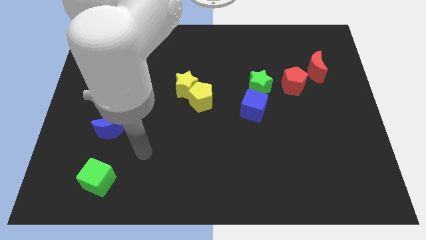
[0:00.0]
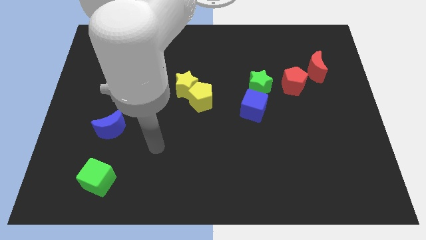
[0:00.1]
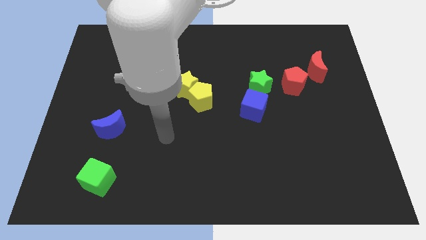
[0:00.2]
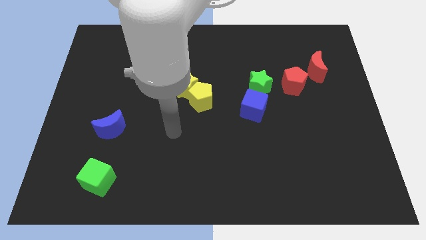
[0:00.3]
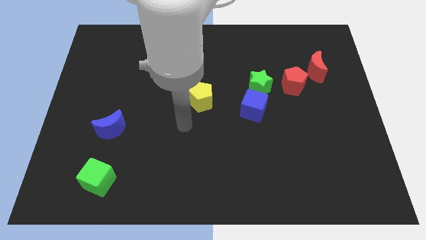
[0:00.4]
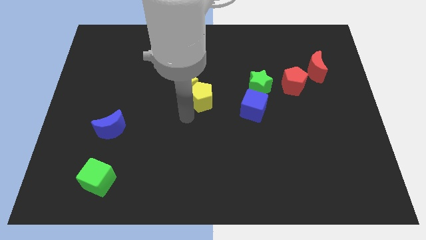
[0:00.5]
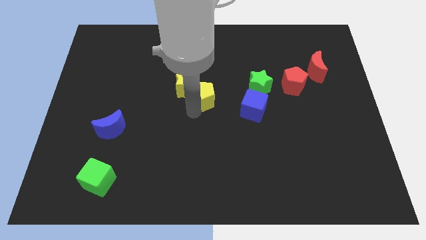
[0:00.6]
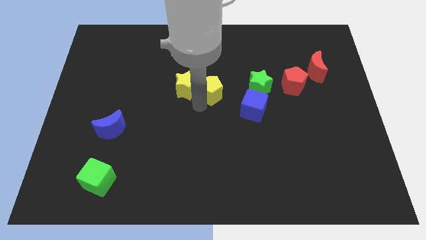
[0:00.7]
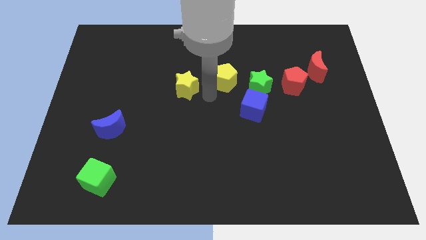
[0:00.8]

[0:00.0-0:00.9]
pull the yellow star apart from the yellow pentagon

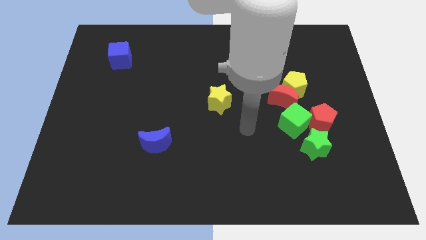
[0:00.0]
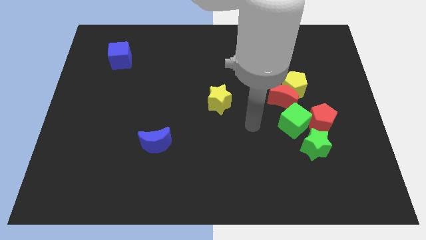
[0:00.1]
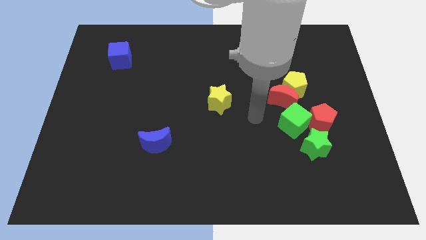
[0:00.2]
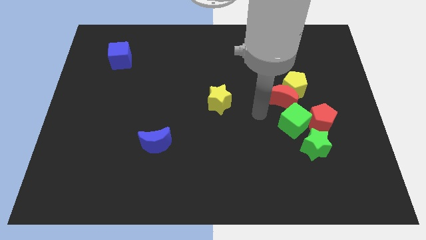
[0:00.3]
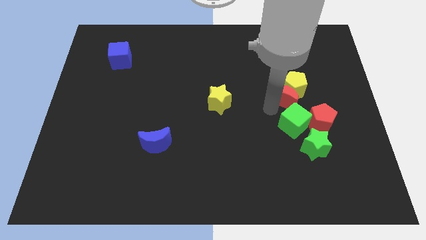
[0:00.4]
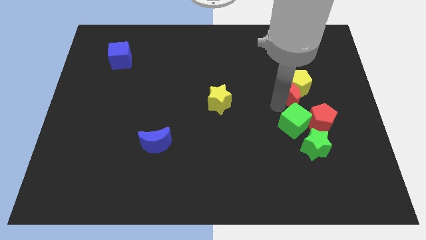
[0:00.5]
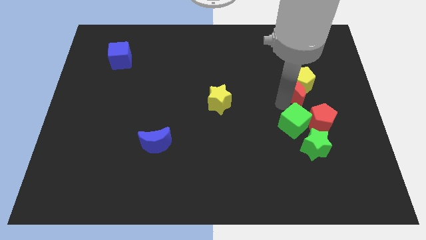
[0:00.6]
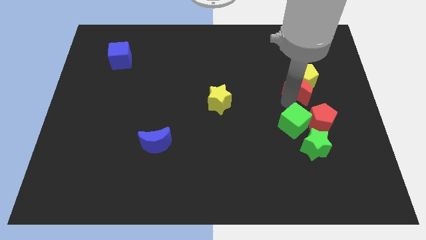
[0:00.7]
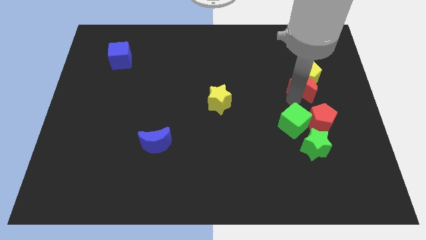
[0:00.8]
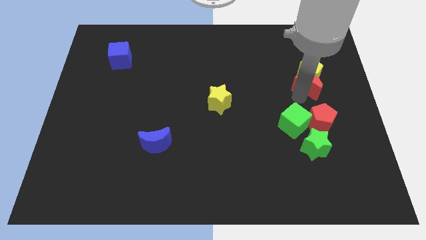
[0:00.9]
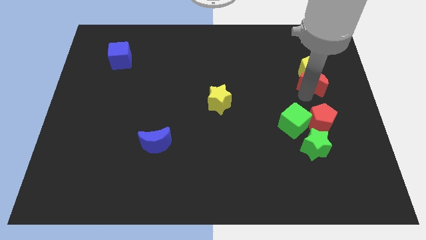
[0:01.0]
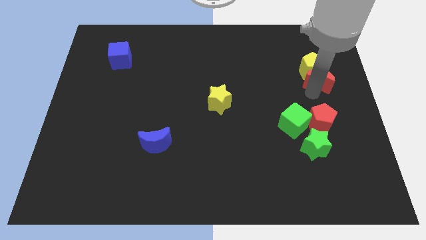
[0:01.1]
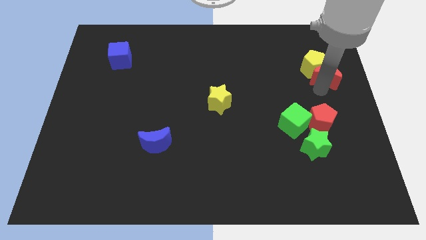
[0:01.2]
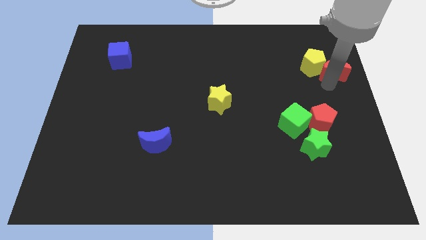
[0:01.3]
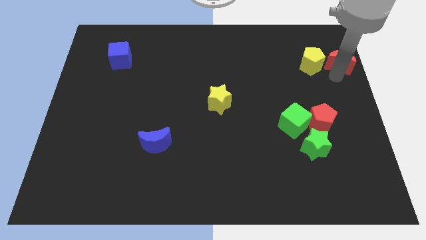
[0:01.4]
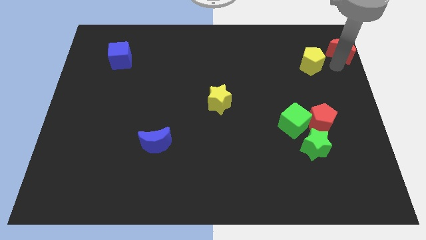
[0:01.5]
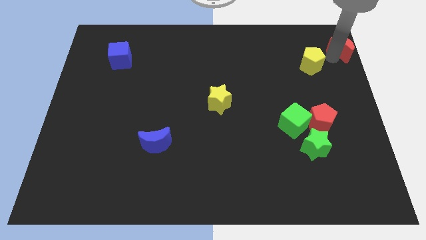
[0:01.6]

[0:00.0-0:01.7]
pull the yellow pentagon apart from the red moon

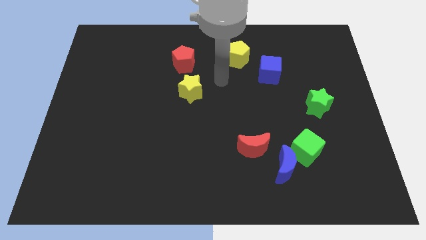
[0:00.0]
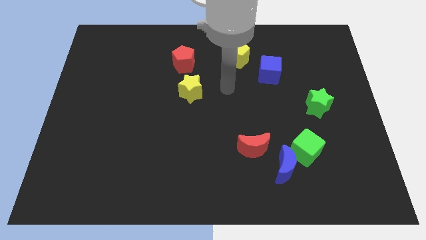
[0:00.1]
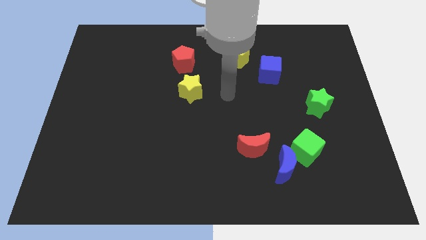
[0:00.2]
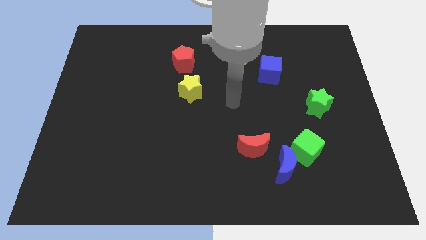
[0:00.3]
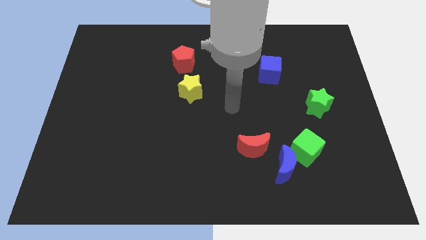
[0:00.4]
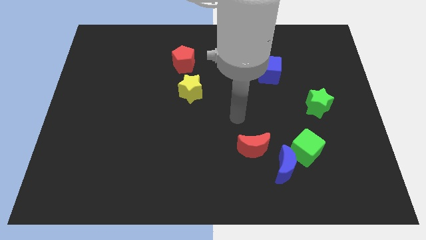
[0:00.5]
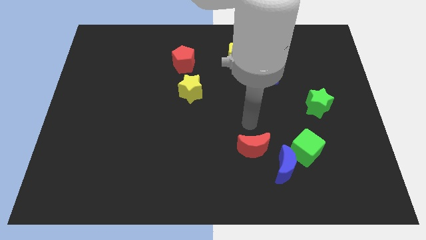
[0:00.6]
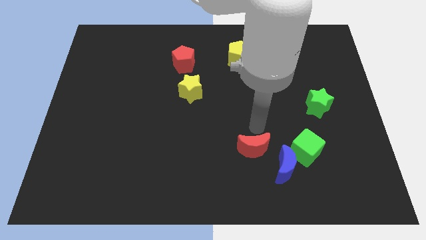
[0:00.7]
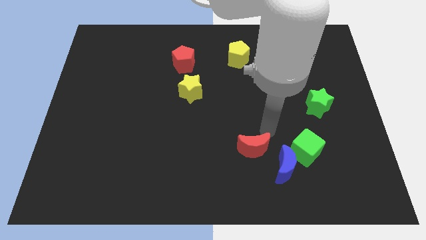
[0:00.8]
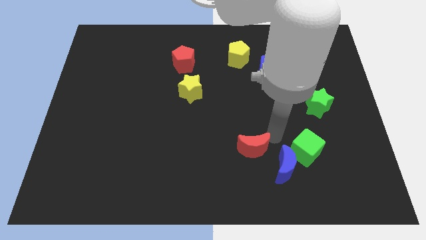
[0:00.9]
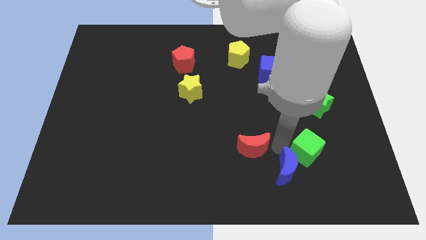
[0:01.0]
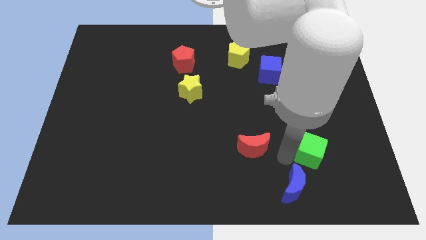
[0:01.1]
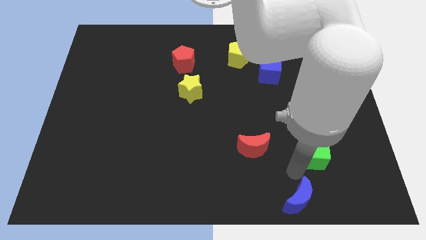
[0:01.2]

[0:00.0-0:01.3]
separate the green cube from the blue moon

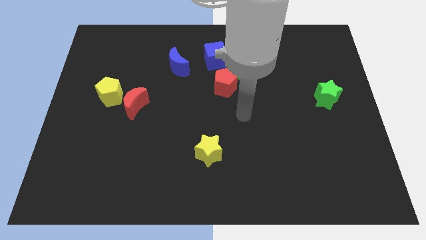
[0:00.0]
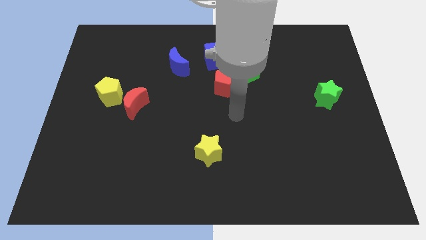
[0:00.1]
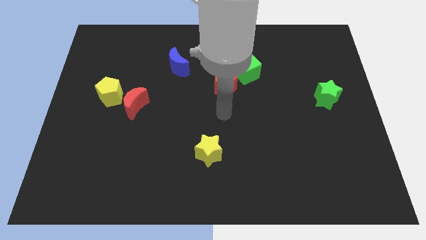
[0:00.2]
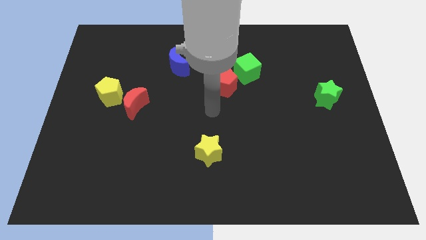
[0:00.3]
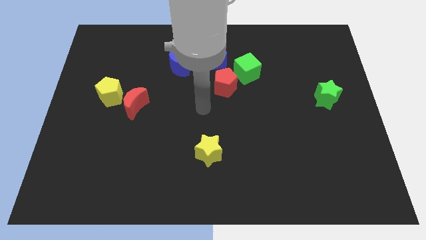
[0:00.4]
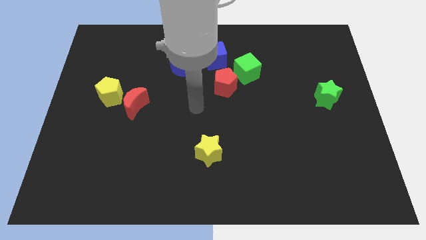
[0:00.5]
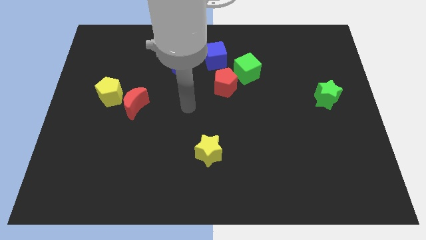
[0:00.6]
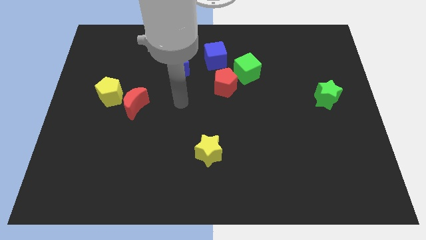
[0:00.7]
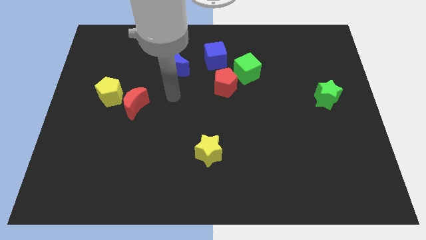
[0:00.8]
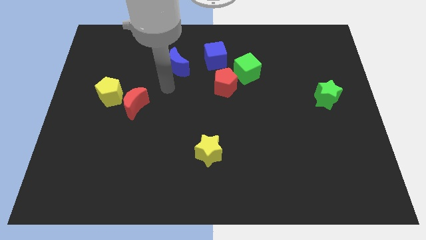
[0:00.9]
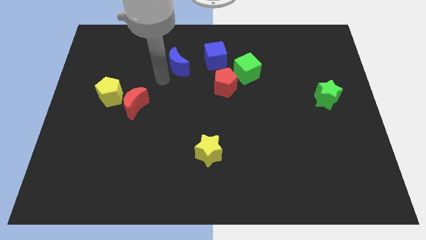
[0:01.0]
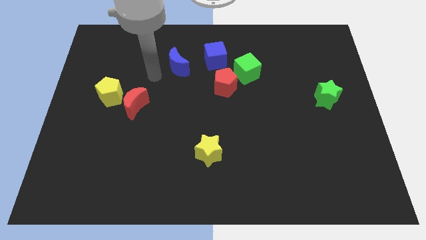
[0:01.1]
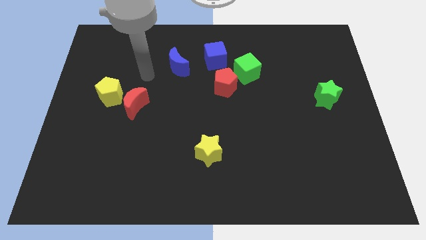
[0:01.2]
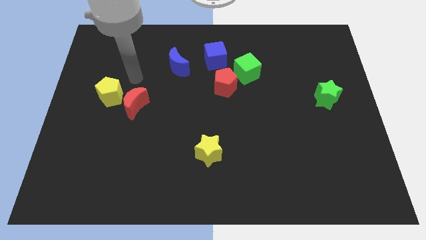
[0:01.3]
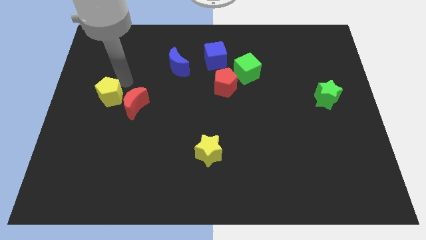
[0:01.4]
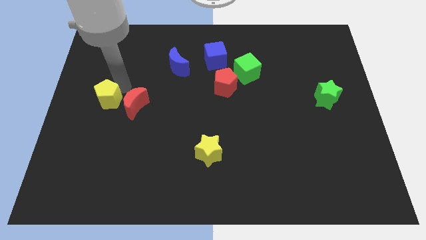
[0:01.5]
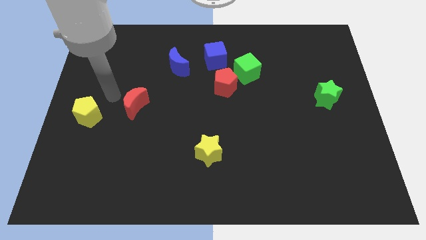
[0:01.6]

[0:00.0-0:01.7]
move the red moon away from the yellow pentagon

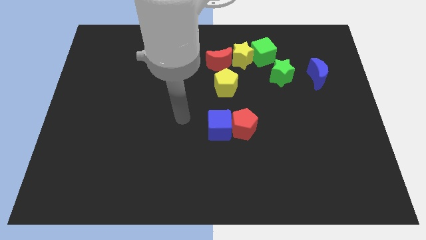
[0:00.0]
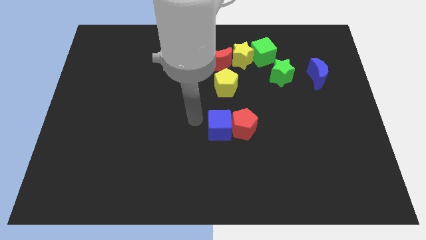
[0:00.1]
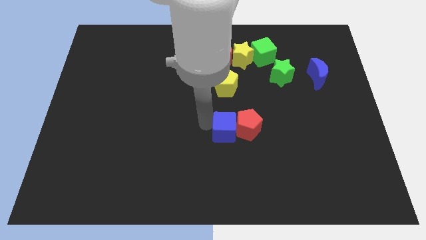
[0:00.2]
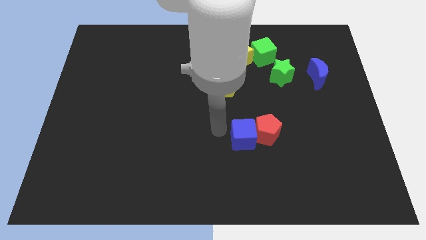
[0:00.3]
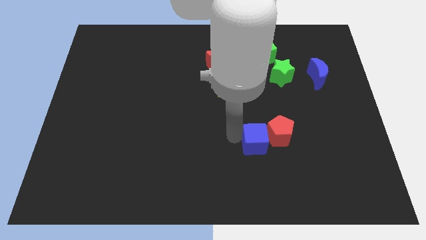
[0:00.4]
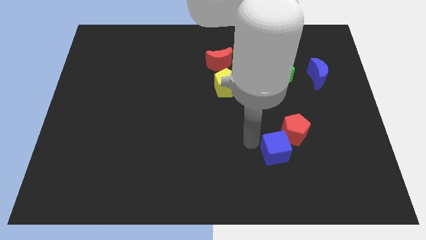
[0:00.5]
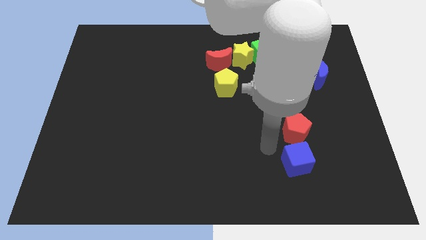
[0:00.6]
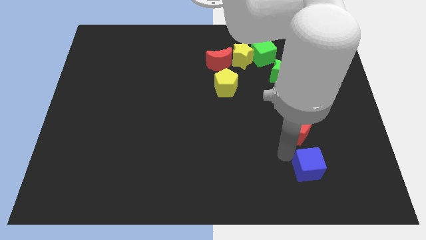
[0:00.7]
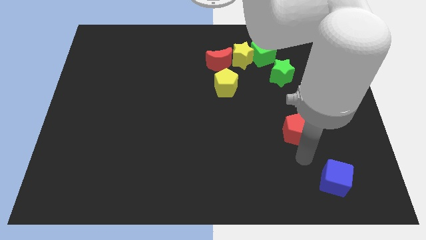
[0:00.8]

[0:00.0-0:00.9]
move the red pentagon away from the blue cube

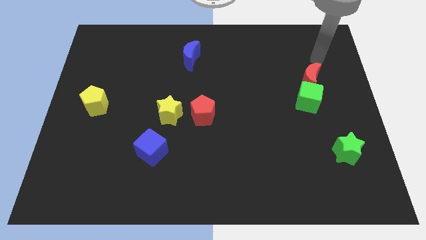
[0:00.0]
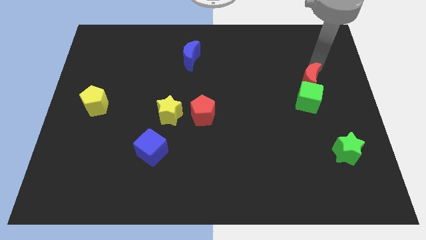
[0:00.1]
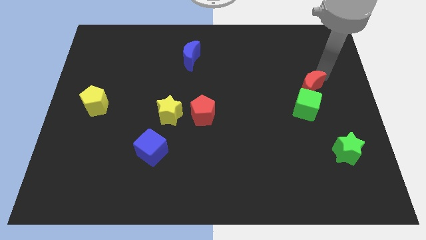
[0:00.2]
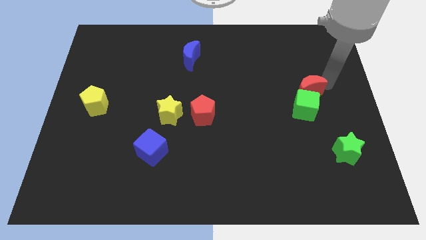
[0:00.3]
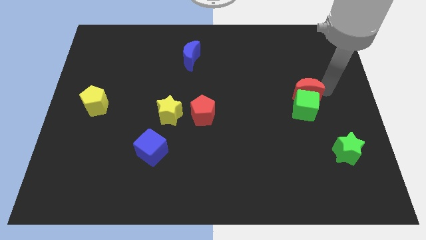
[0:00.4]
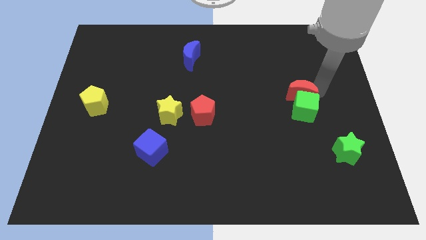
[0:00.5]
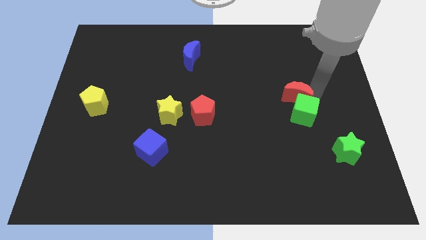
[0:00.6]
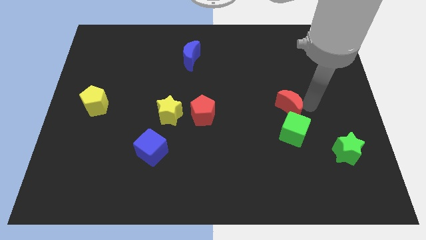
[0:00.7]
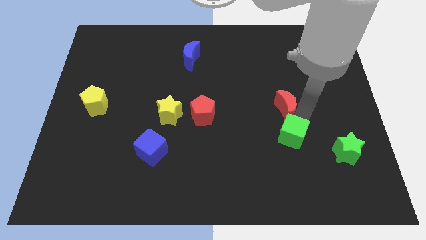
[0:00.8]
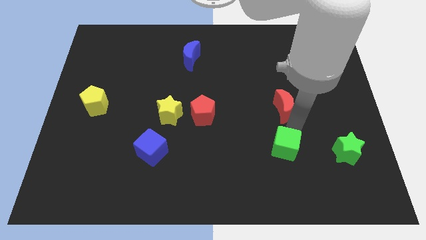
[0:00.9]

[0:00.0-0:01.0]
pull the red moon apart from the green cube

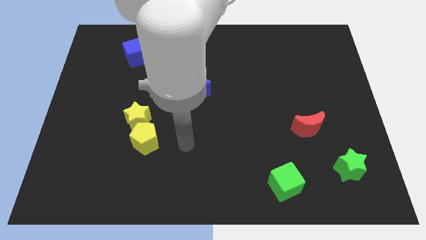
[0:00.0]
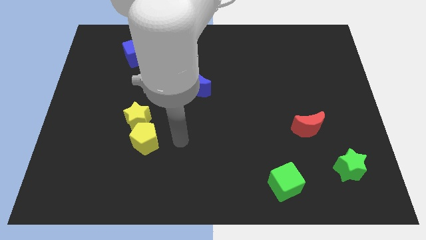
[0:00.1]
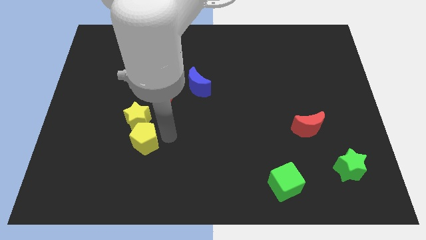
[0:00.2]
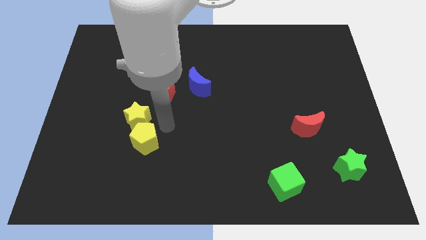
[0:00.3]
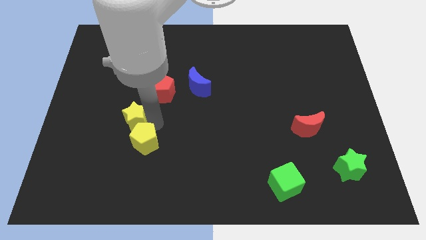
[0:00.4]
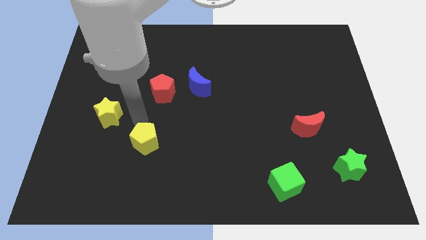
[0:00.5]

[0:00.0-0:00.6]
move the yellow pentagon away from the yellow star

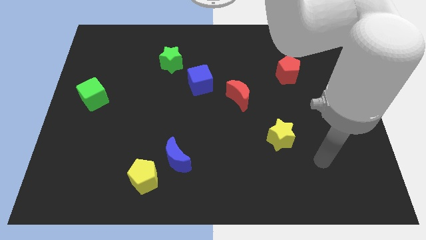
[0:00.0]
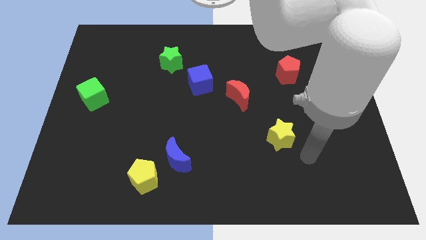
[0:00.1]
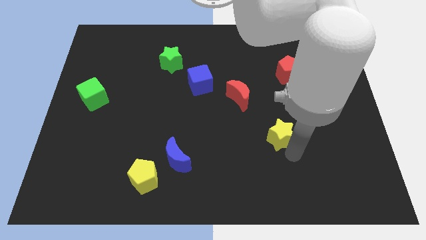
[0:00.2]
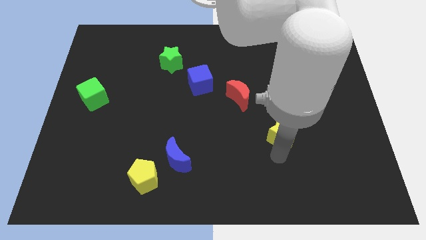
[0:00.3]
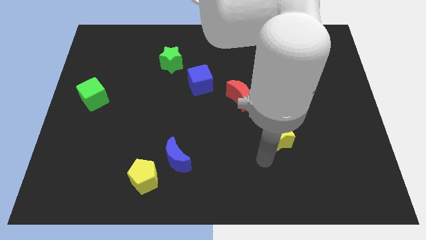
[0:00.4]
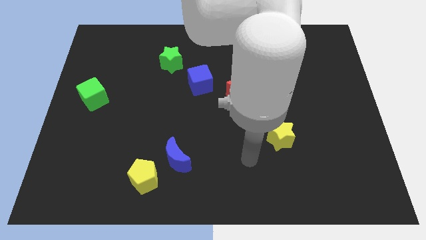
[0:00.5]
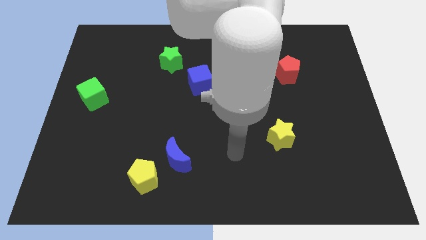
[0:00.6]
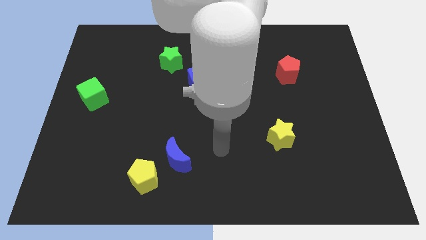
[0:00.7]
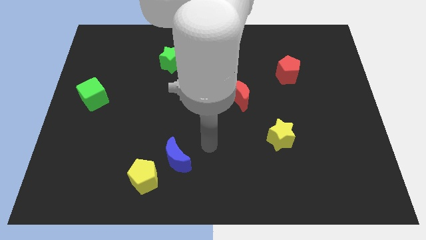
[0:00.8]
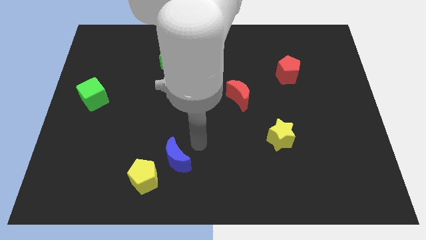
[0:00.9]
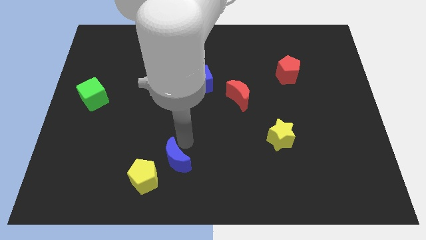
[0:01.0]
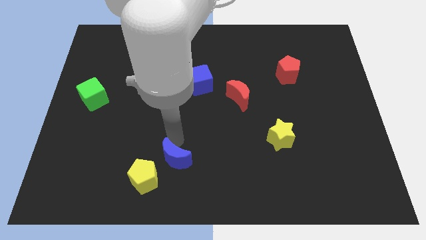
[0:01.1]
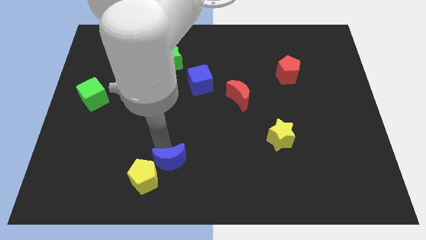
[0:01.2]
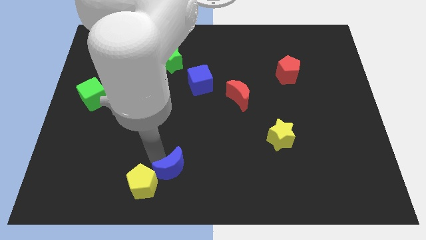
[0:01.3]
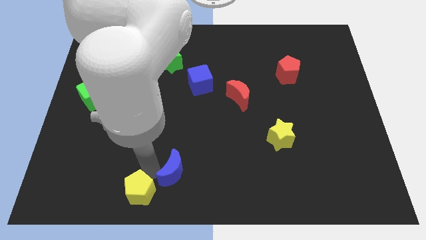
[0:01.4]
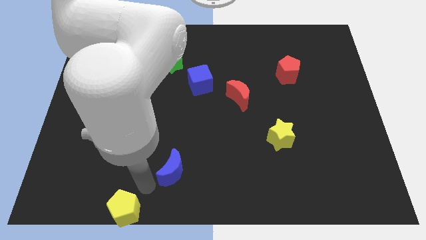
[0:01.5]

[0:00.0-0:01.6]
separate the blue moon from the yellow pentagon
